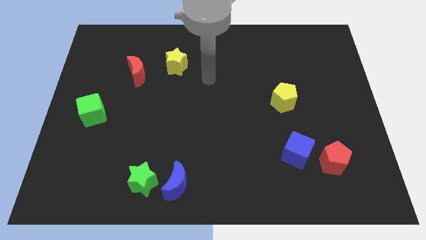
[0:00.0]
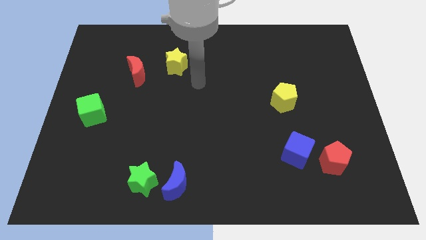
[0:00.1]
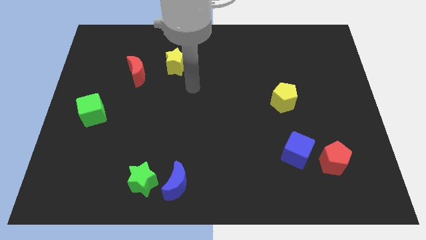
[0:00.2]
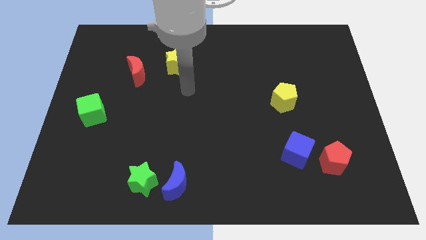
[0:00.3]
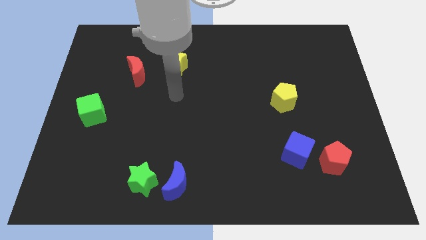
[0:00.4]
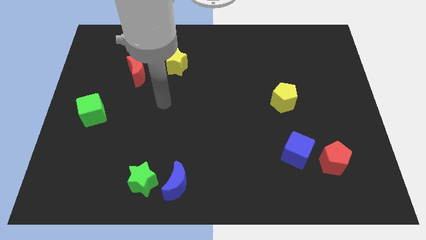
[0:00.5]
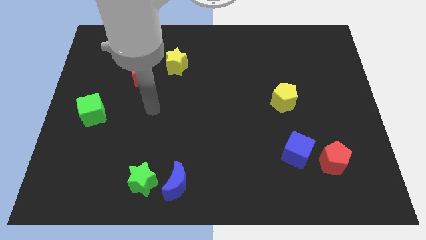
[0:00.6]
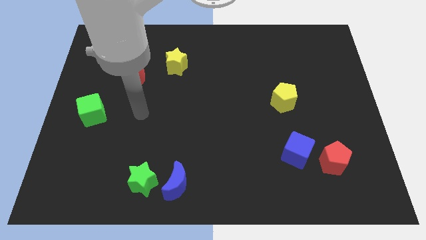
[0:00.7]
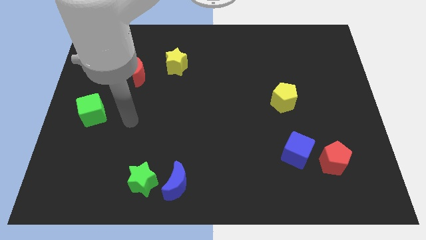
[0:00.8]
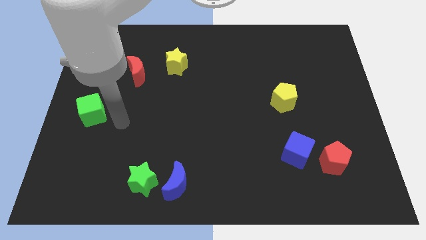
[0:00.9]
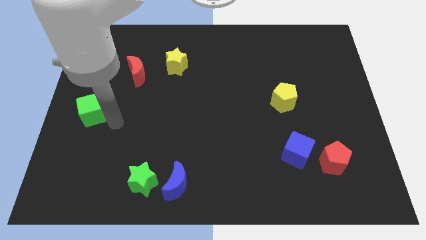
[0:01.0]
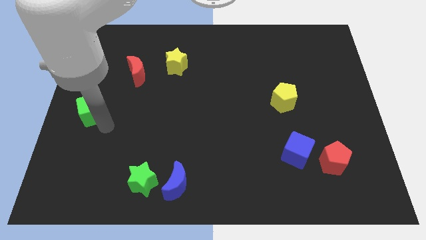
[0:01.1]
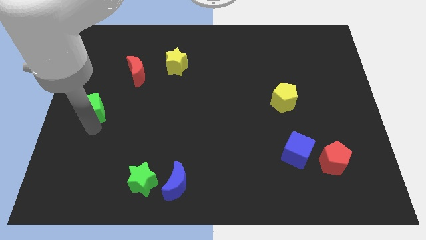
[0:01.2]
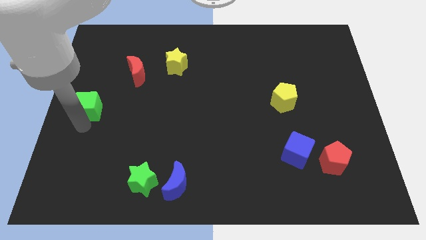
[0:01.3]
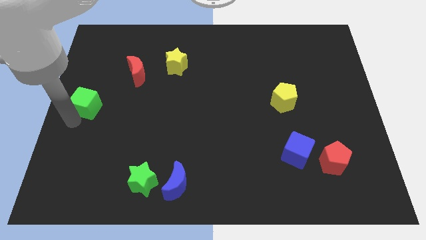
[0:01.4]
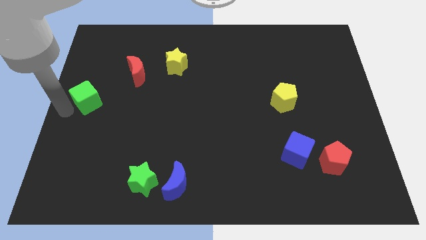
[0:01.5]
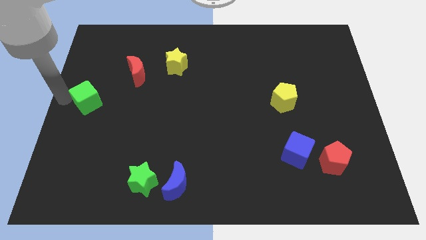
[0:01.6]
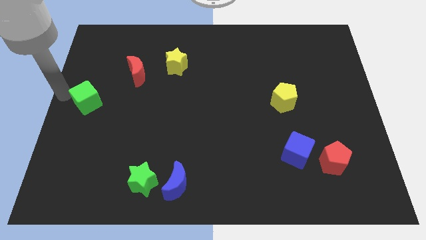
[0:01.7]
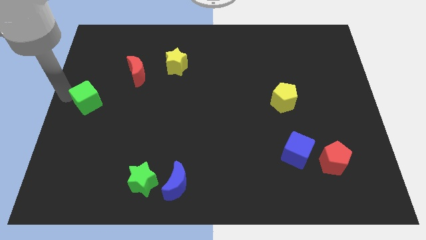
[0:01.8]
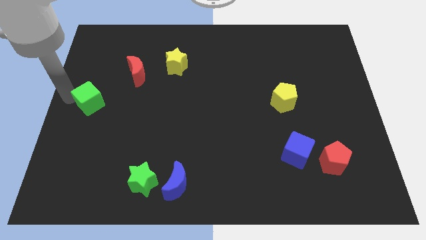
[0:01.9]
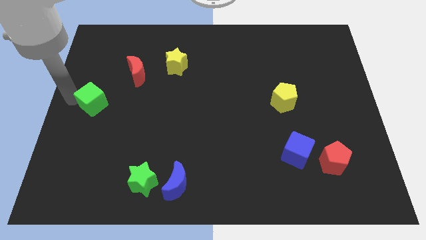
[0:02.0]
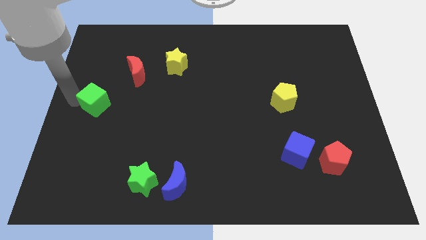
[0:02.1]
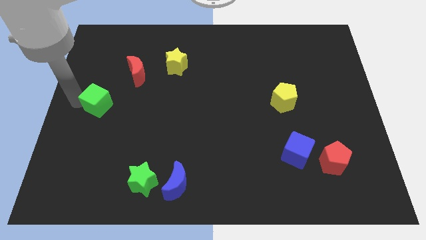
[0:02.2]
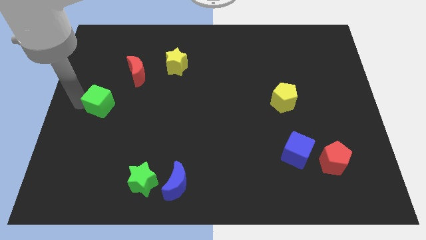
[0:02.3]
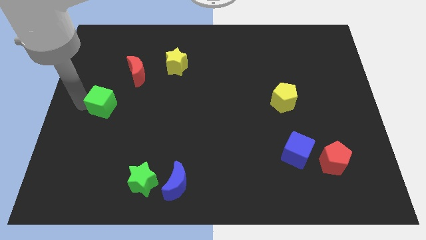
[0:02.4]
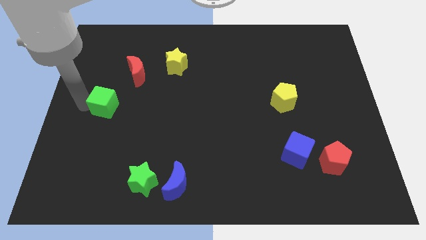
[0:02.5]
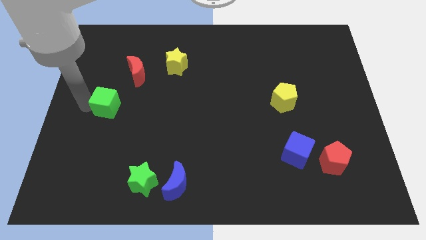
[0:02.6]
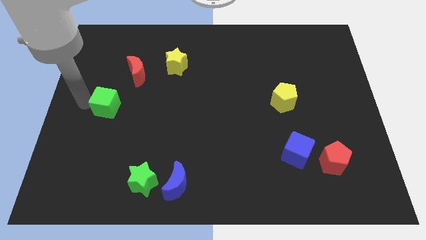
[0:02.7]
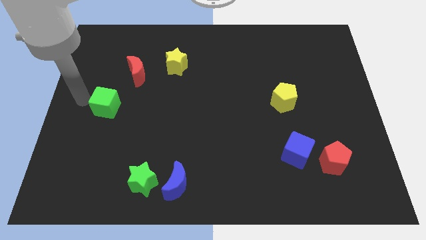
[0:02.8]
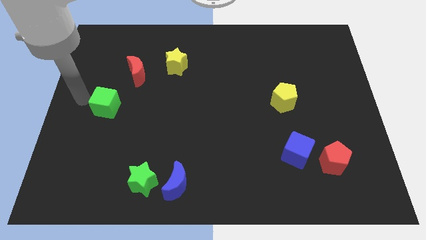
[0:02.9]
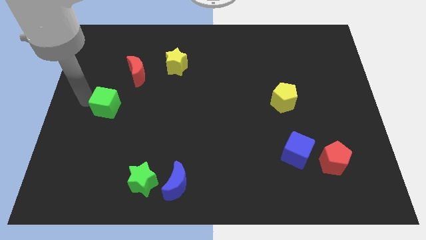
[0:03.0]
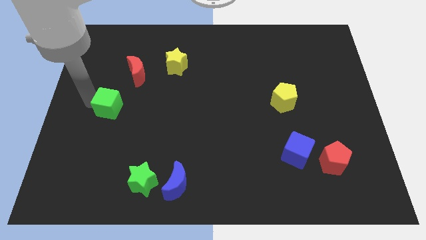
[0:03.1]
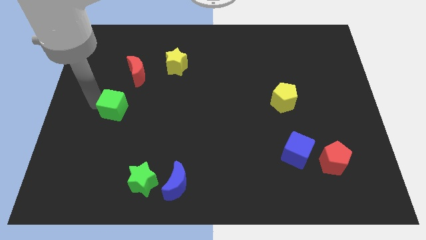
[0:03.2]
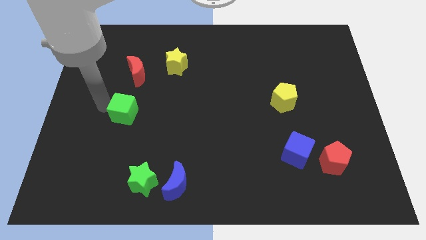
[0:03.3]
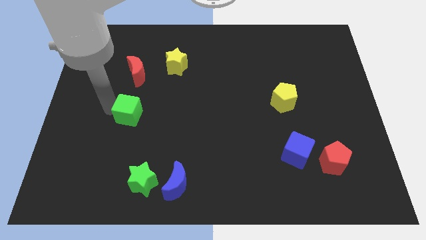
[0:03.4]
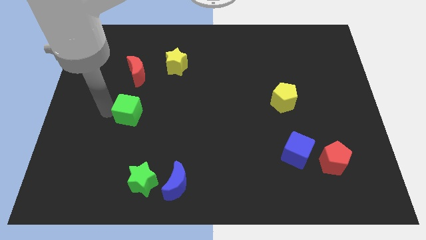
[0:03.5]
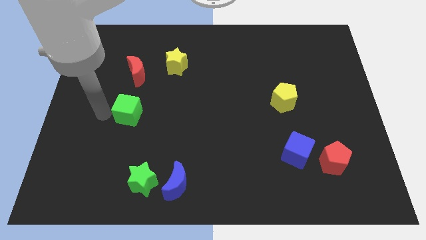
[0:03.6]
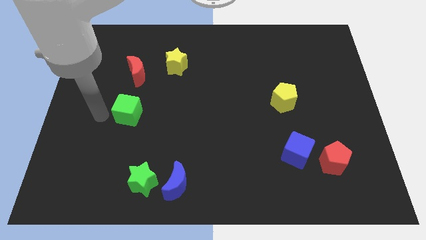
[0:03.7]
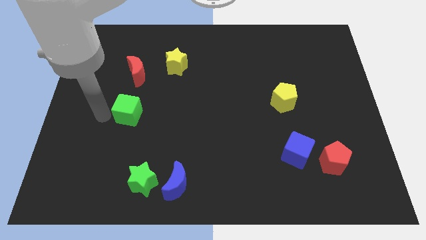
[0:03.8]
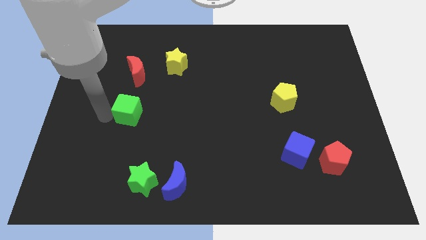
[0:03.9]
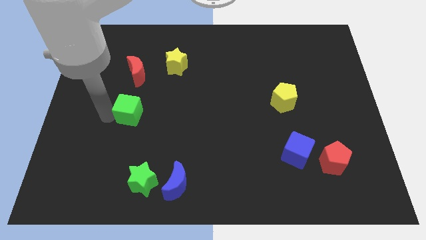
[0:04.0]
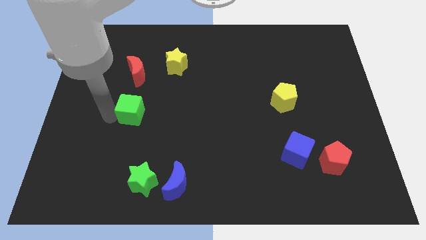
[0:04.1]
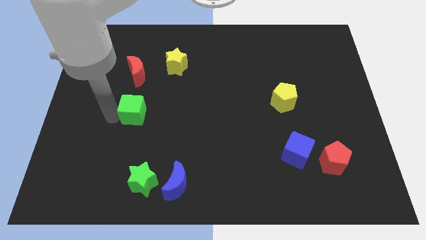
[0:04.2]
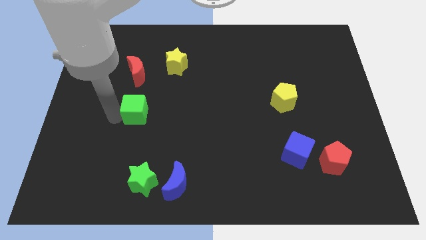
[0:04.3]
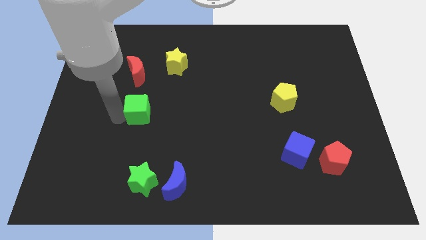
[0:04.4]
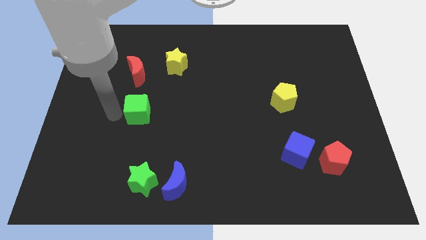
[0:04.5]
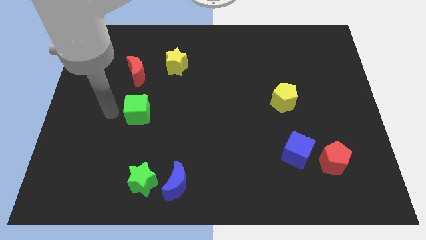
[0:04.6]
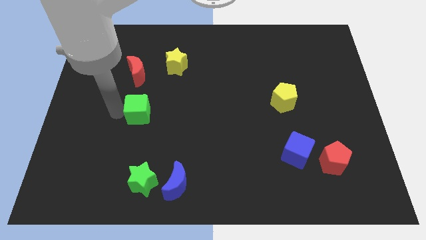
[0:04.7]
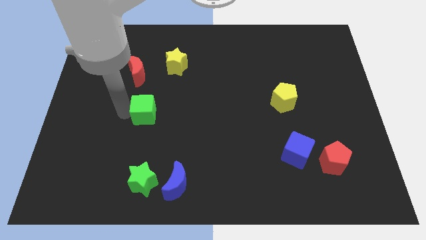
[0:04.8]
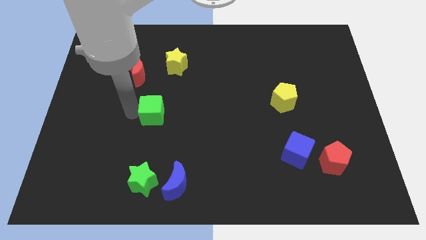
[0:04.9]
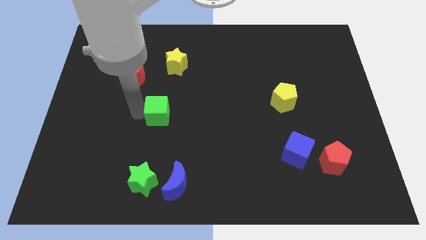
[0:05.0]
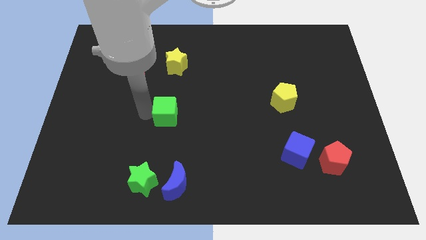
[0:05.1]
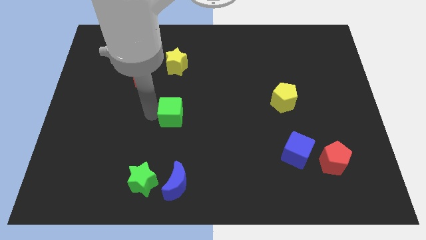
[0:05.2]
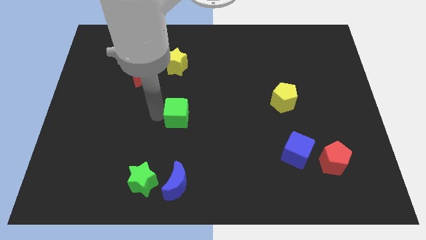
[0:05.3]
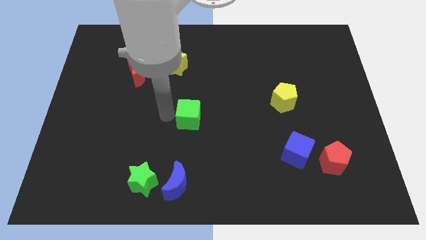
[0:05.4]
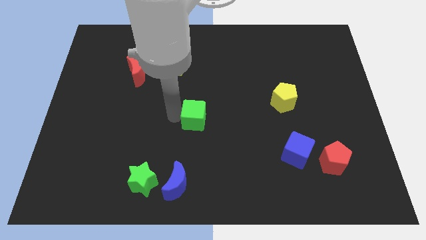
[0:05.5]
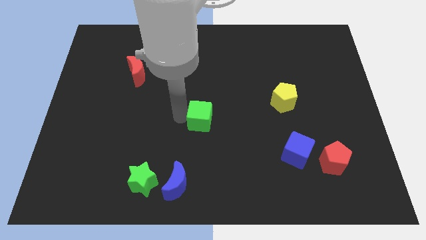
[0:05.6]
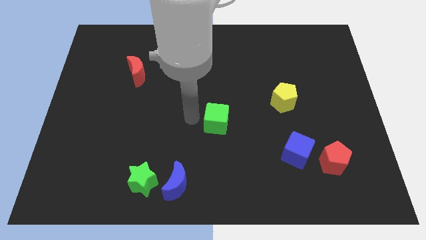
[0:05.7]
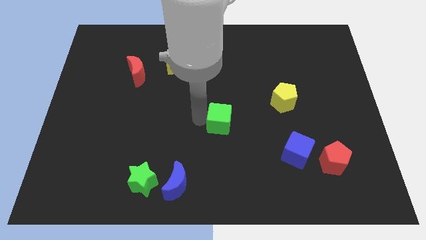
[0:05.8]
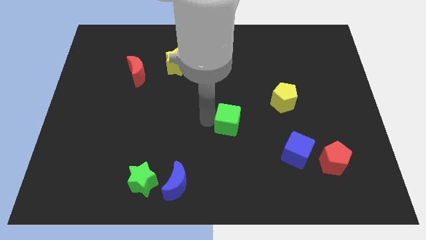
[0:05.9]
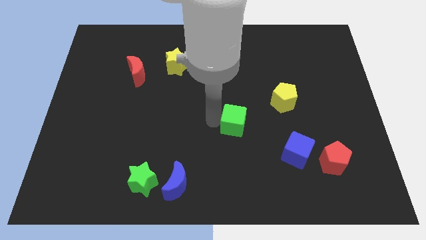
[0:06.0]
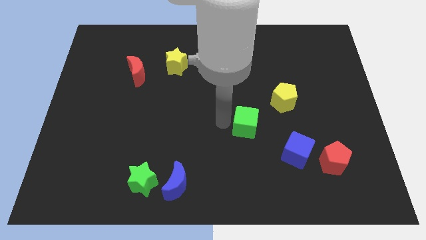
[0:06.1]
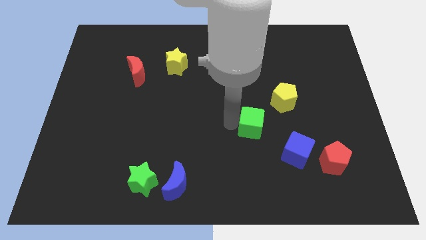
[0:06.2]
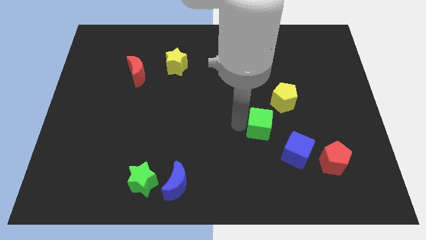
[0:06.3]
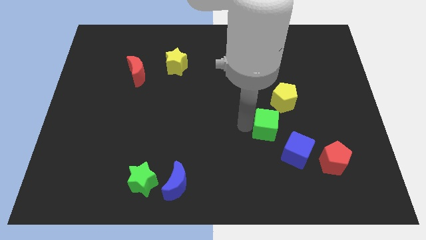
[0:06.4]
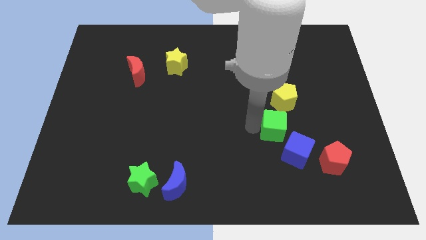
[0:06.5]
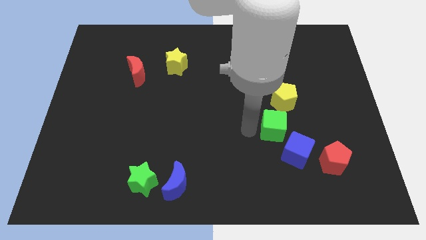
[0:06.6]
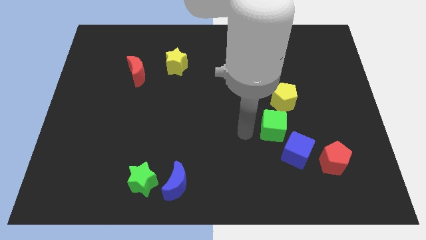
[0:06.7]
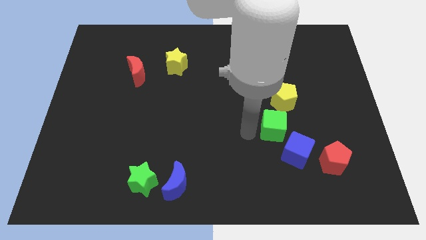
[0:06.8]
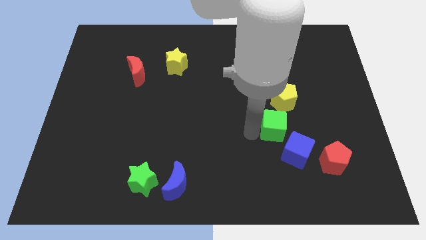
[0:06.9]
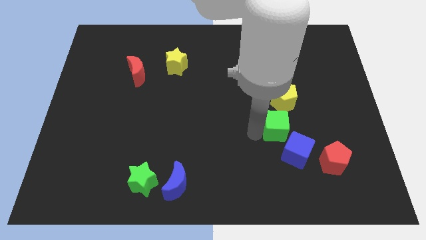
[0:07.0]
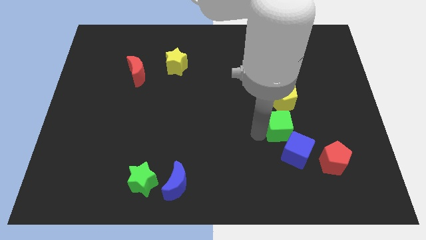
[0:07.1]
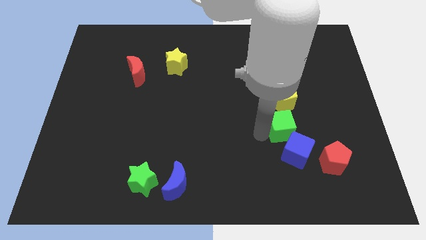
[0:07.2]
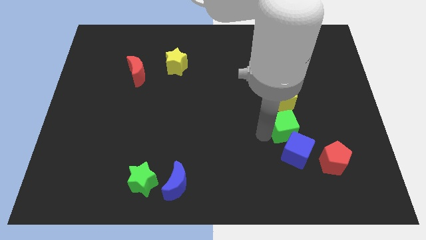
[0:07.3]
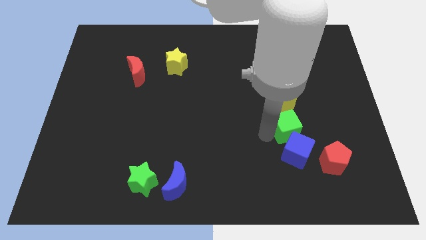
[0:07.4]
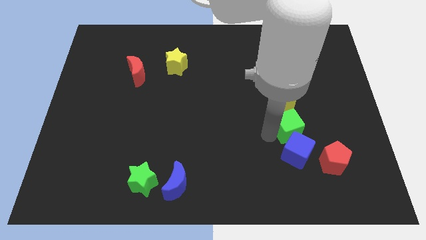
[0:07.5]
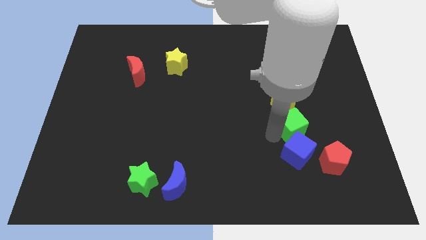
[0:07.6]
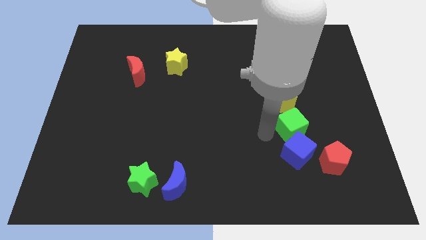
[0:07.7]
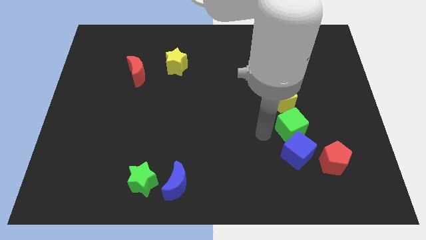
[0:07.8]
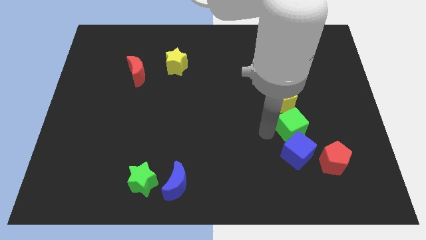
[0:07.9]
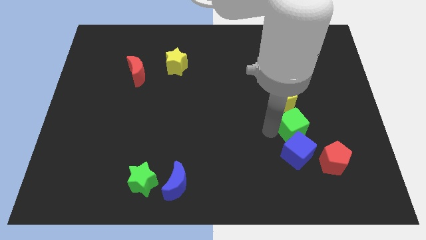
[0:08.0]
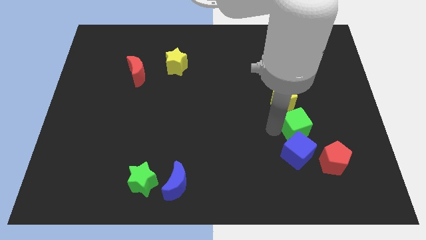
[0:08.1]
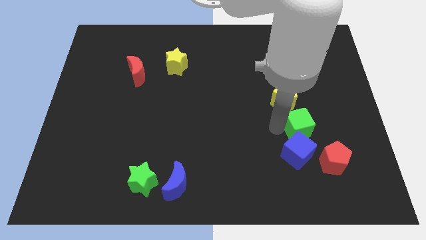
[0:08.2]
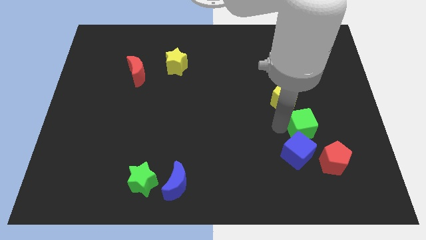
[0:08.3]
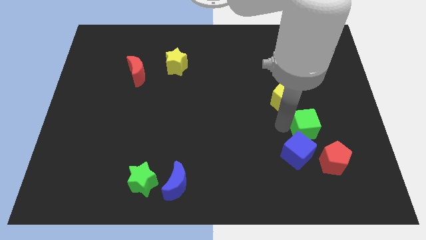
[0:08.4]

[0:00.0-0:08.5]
push the green cube to the top of the red pentagon
